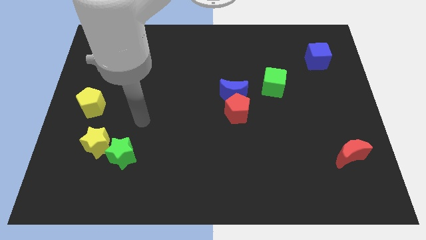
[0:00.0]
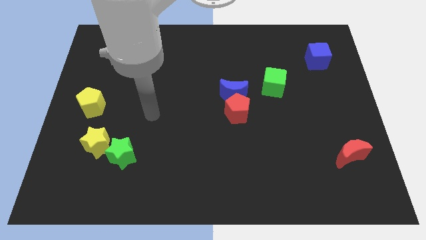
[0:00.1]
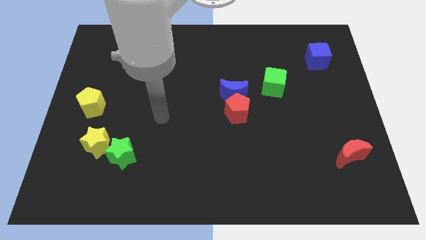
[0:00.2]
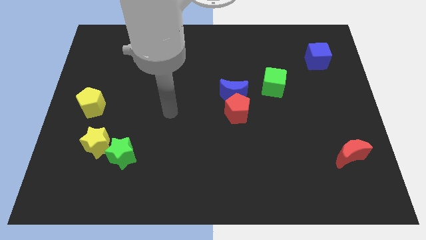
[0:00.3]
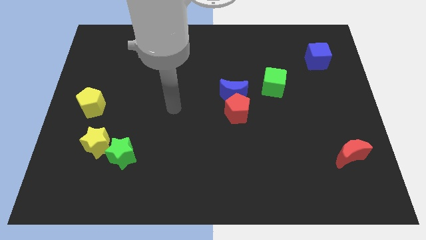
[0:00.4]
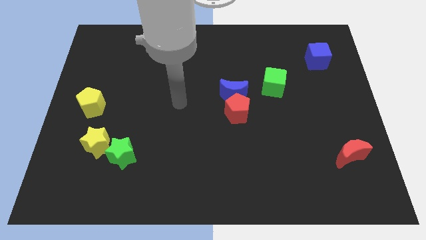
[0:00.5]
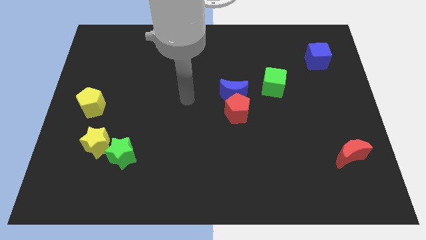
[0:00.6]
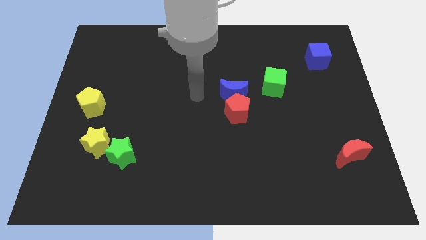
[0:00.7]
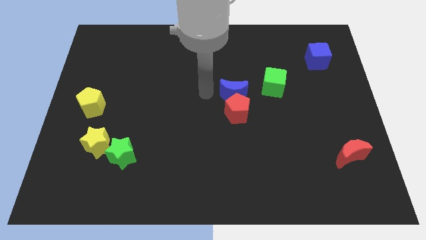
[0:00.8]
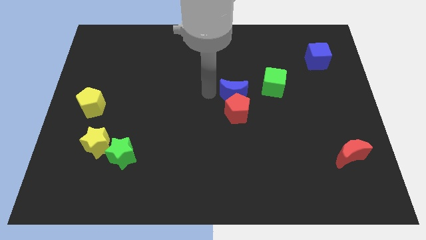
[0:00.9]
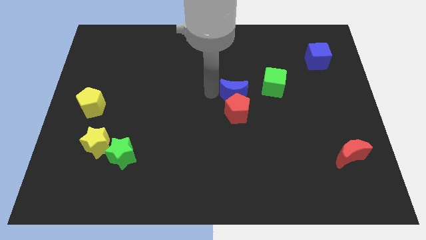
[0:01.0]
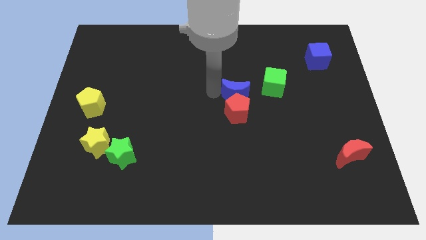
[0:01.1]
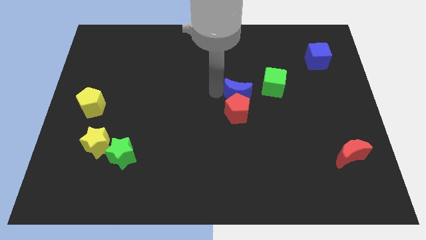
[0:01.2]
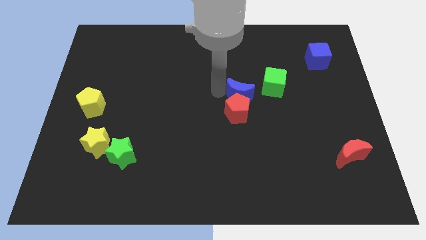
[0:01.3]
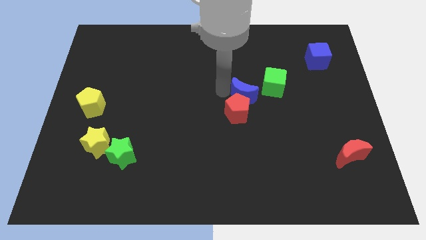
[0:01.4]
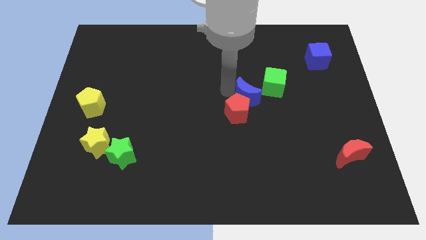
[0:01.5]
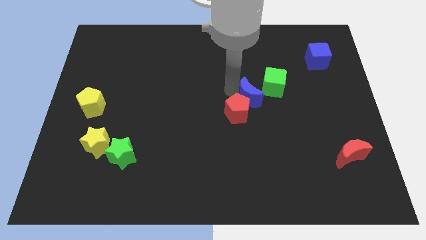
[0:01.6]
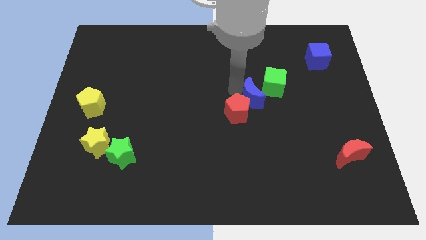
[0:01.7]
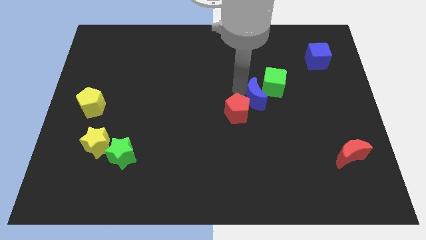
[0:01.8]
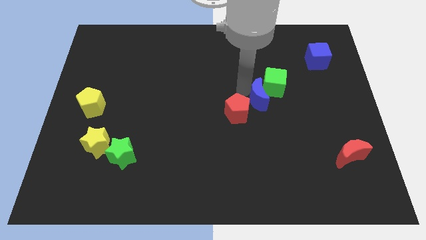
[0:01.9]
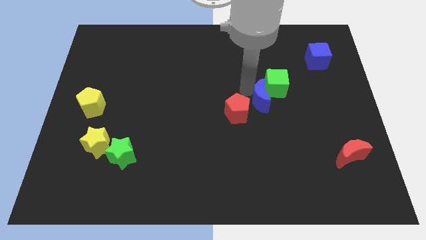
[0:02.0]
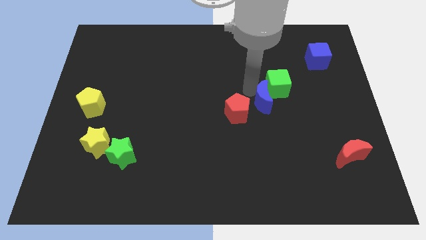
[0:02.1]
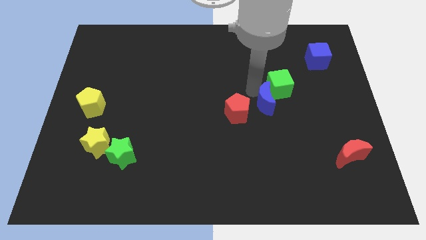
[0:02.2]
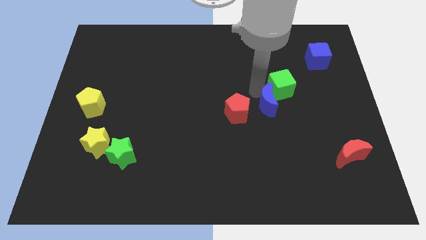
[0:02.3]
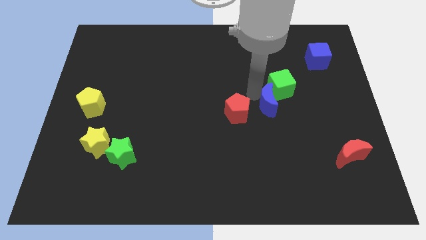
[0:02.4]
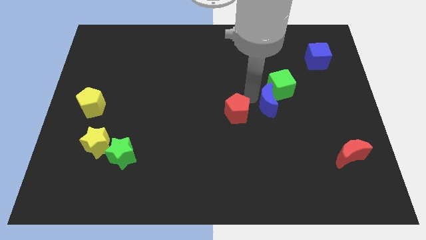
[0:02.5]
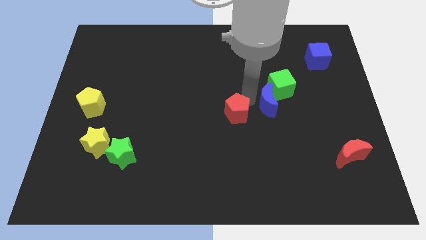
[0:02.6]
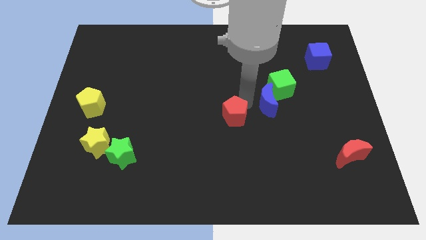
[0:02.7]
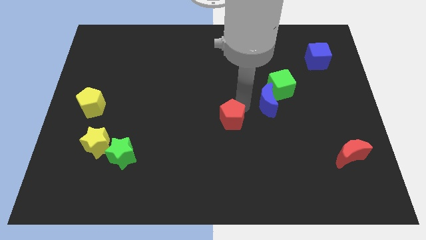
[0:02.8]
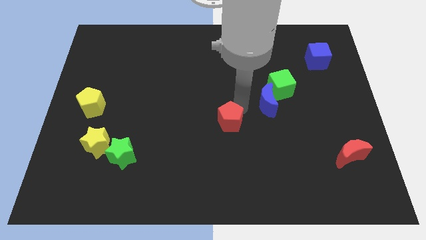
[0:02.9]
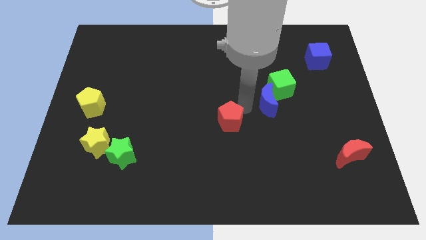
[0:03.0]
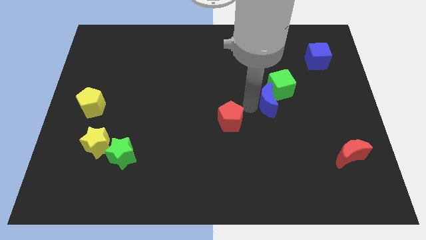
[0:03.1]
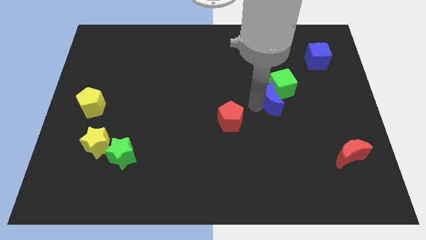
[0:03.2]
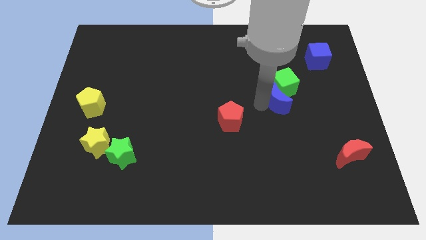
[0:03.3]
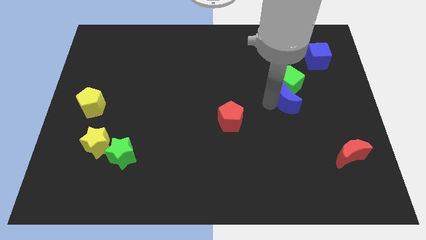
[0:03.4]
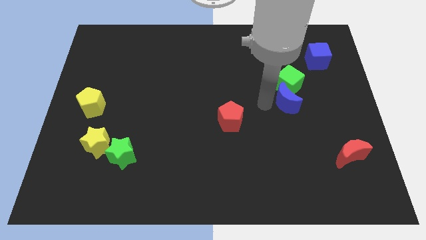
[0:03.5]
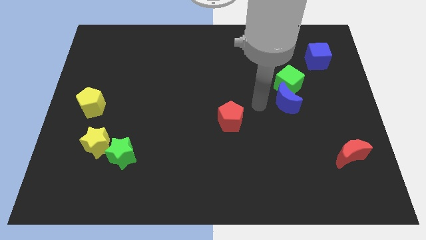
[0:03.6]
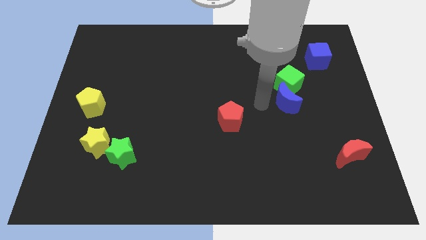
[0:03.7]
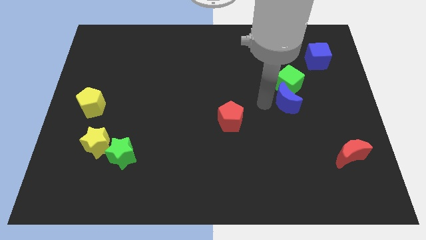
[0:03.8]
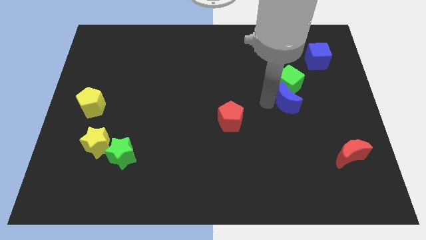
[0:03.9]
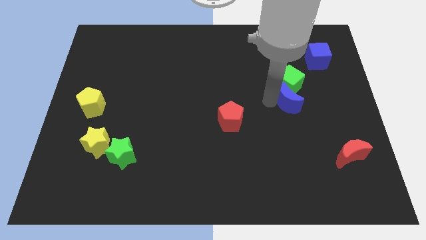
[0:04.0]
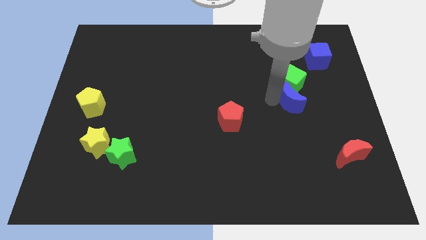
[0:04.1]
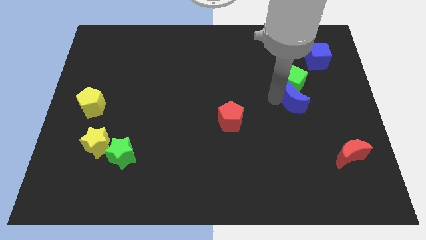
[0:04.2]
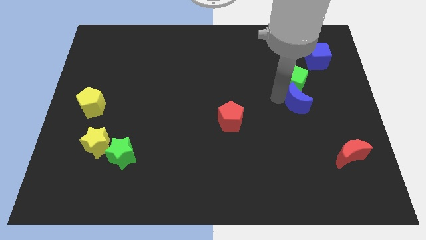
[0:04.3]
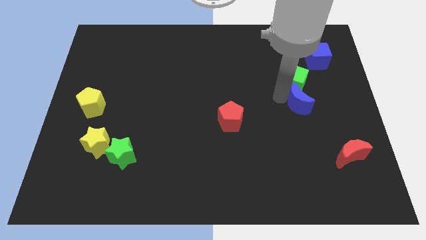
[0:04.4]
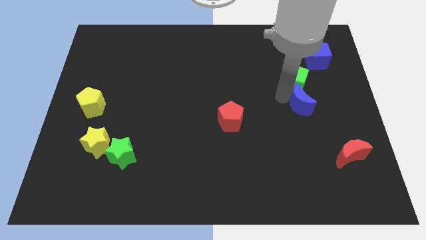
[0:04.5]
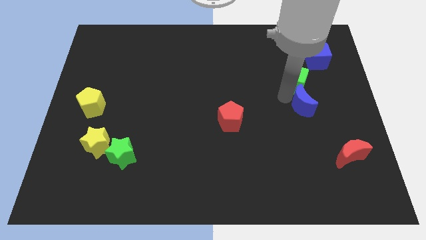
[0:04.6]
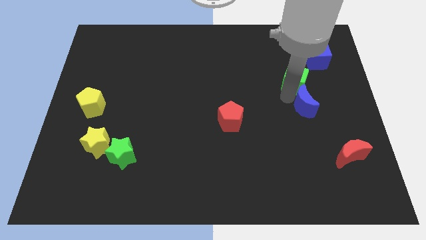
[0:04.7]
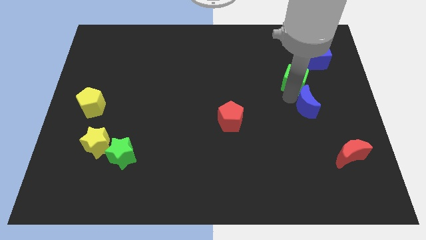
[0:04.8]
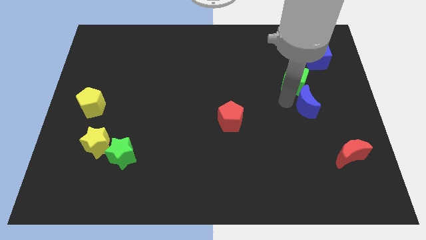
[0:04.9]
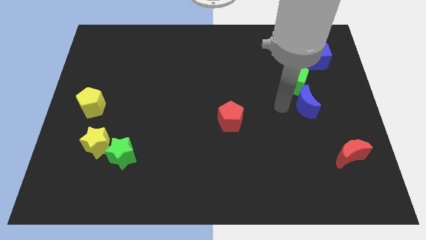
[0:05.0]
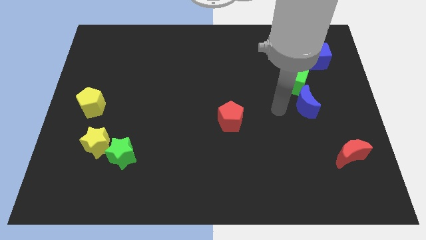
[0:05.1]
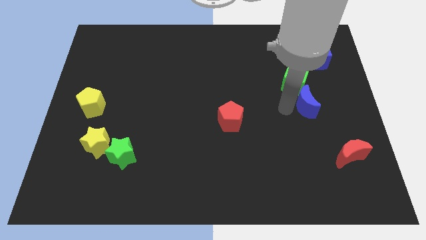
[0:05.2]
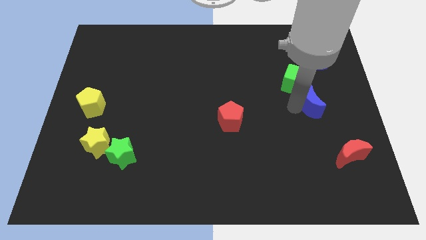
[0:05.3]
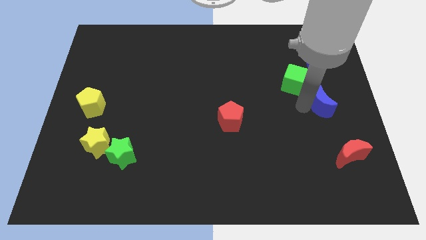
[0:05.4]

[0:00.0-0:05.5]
push the blue moon to the right side

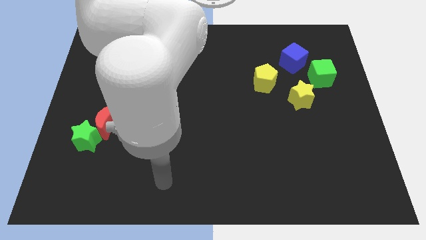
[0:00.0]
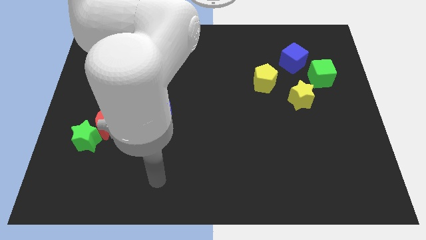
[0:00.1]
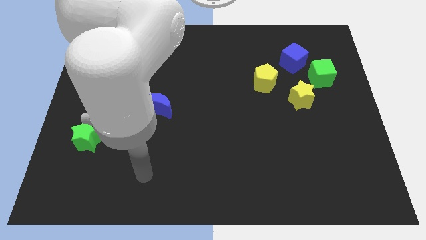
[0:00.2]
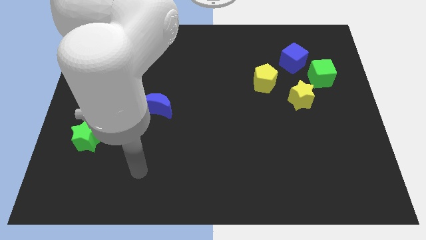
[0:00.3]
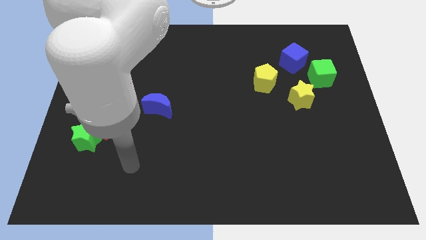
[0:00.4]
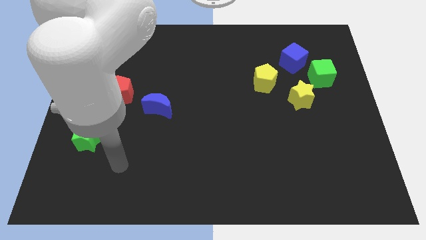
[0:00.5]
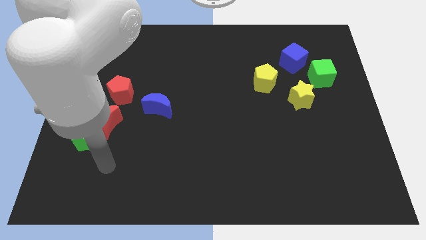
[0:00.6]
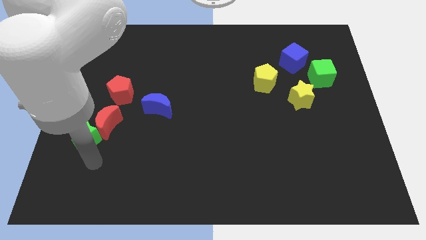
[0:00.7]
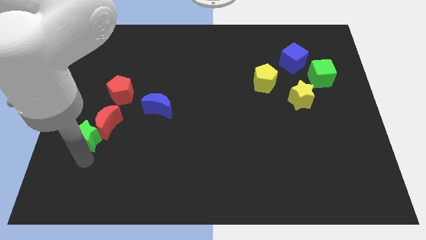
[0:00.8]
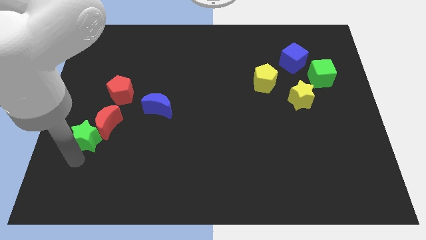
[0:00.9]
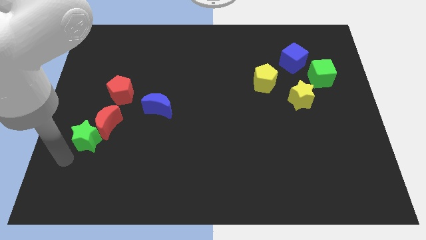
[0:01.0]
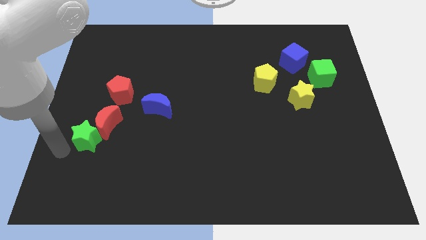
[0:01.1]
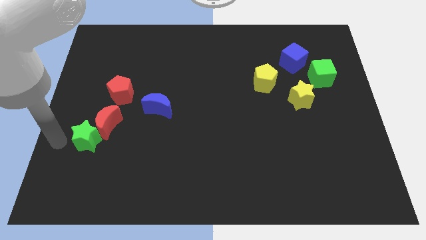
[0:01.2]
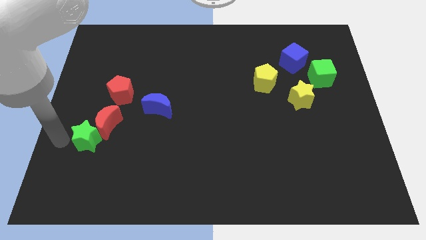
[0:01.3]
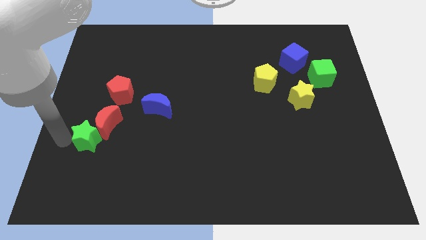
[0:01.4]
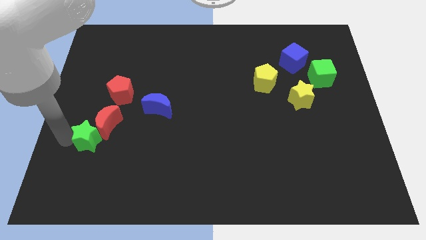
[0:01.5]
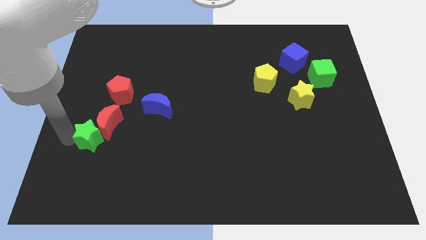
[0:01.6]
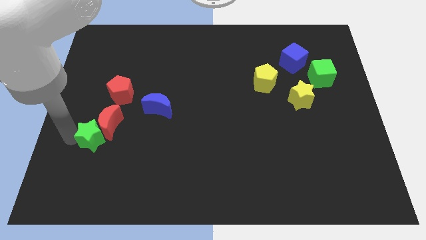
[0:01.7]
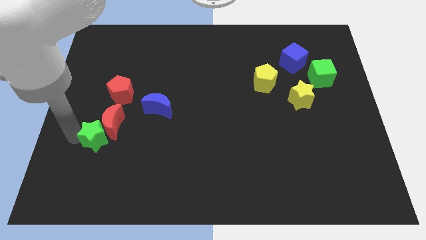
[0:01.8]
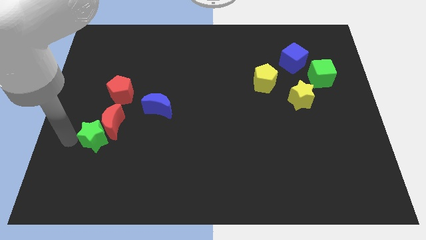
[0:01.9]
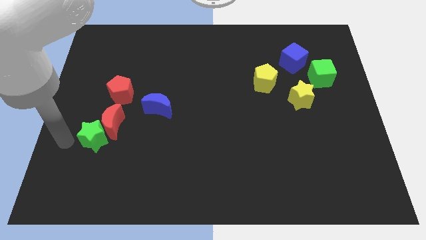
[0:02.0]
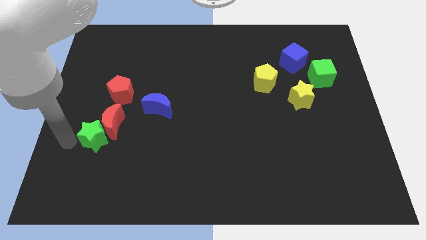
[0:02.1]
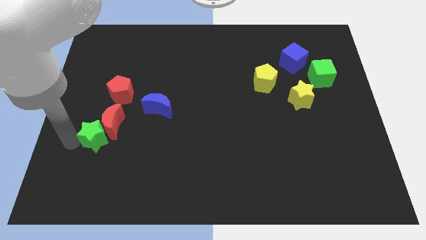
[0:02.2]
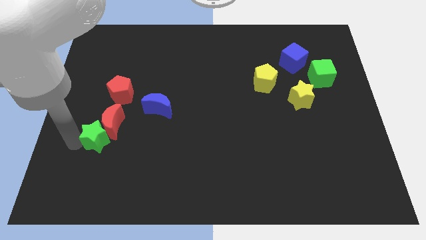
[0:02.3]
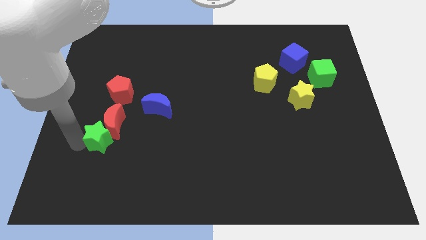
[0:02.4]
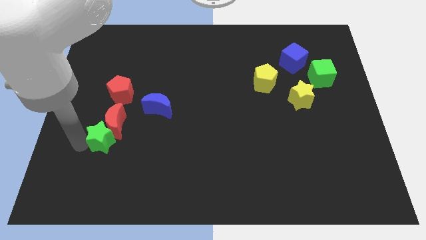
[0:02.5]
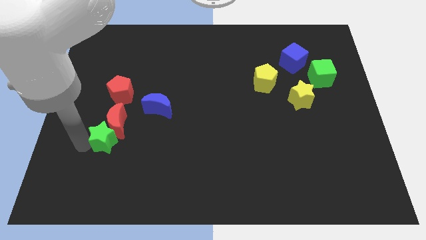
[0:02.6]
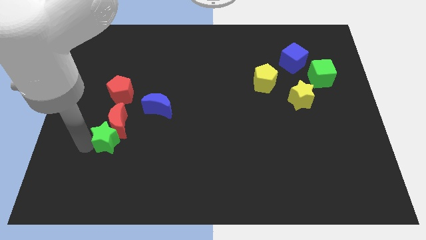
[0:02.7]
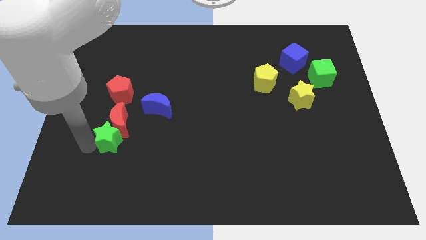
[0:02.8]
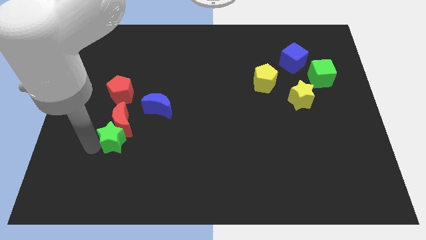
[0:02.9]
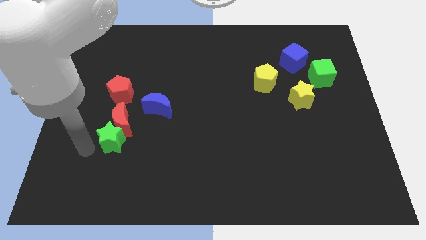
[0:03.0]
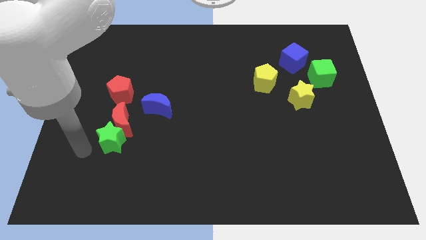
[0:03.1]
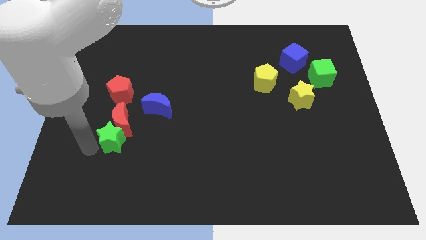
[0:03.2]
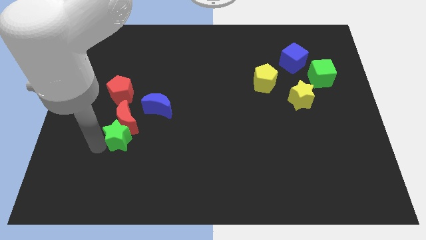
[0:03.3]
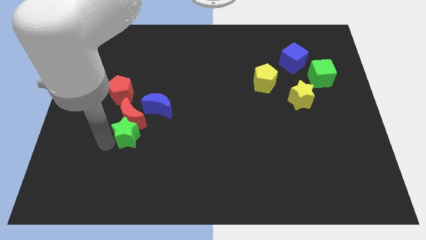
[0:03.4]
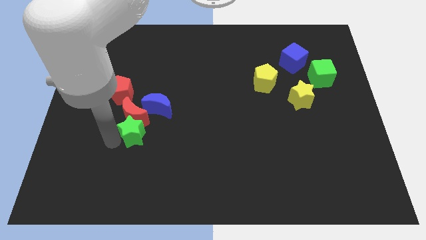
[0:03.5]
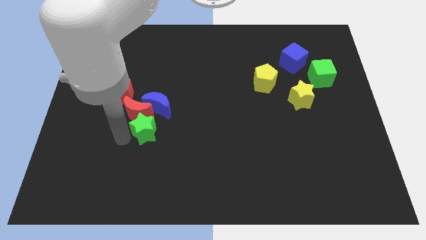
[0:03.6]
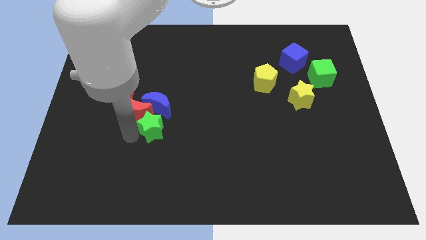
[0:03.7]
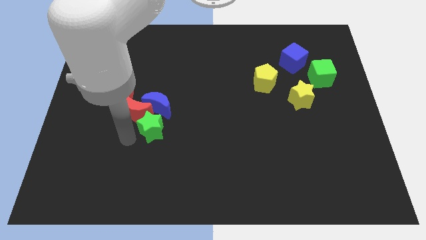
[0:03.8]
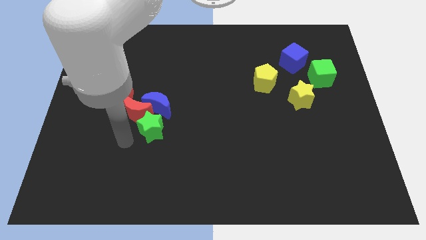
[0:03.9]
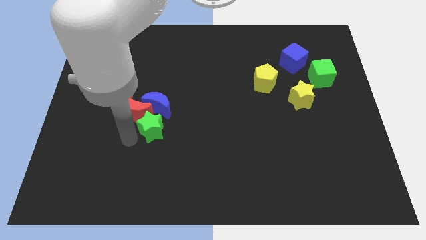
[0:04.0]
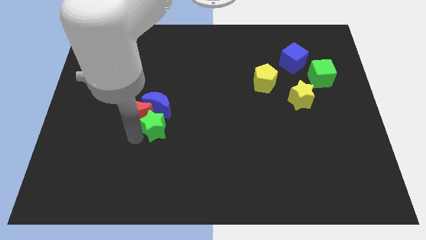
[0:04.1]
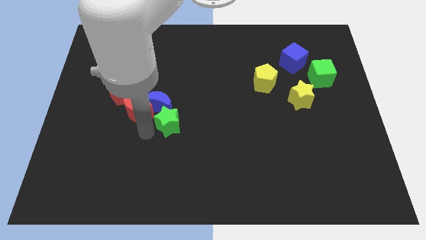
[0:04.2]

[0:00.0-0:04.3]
move the green star to the middle
